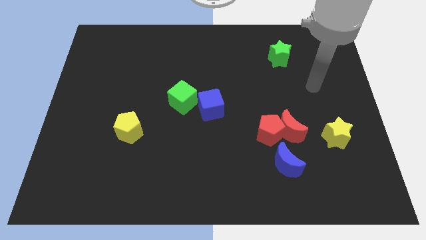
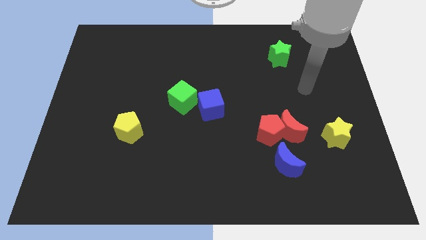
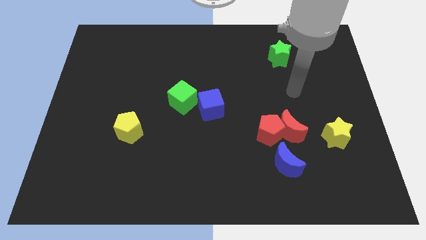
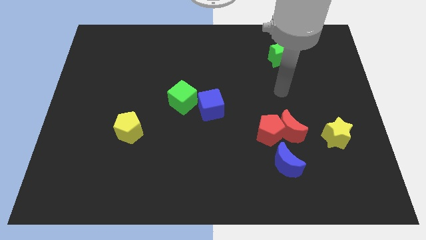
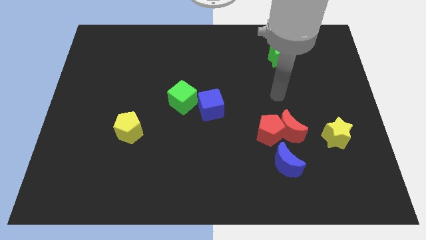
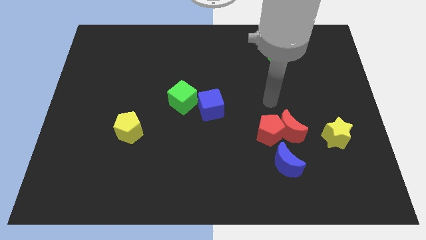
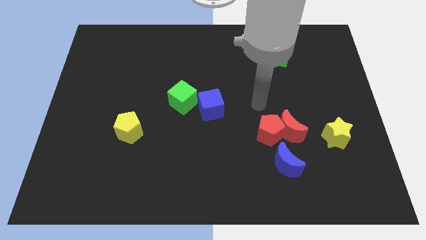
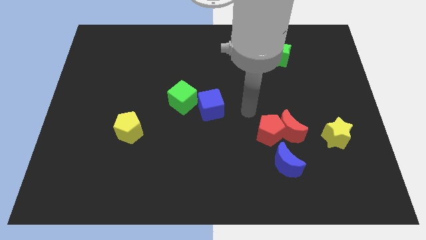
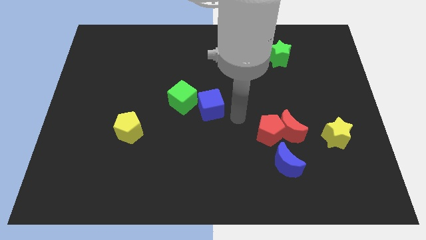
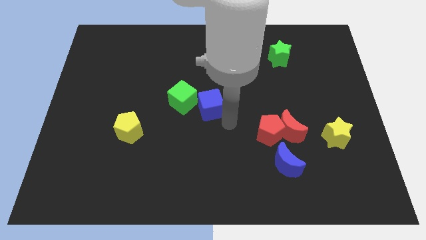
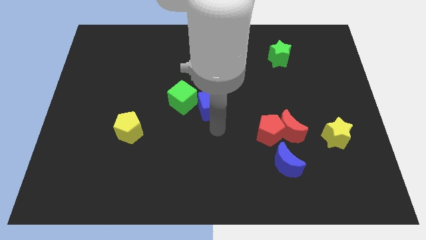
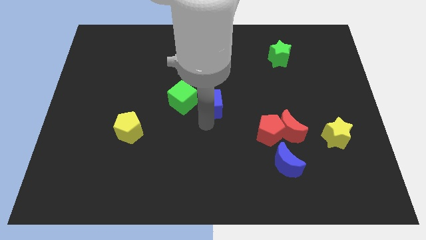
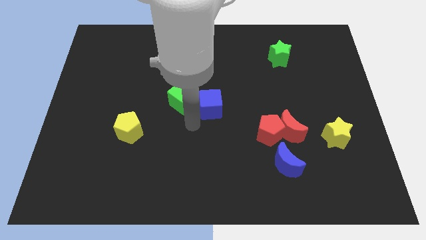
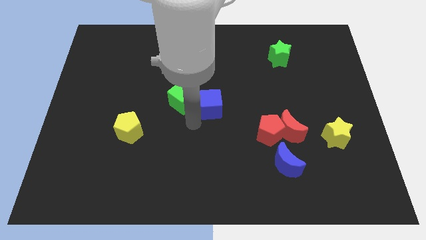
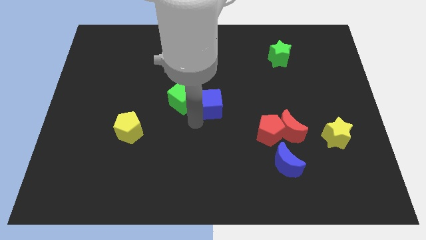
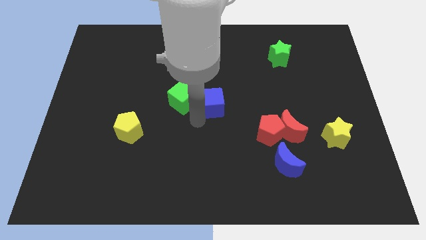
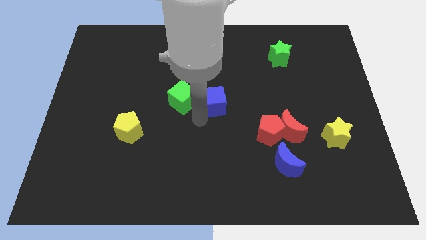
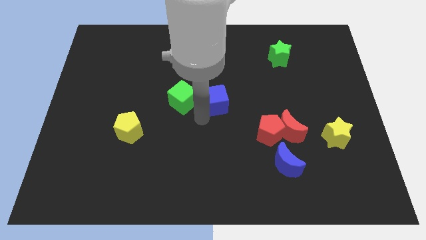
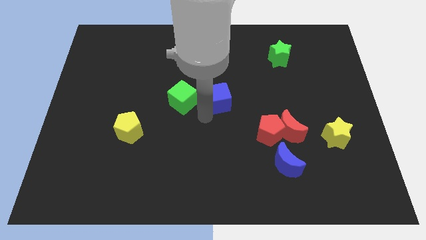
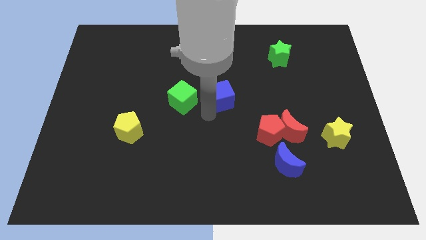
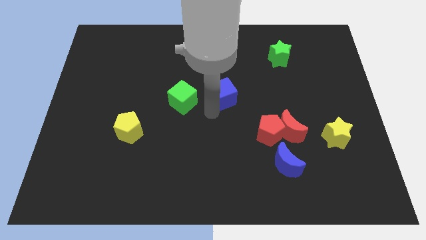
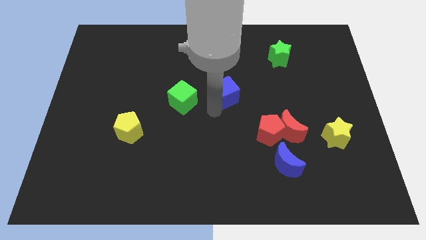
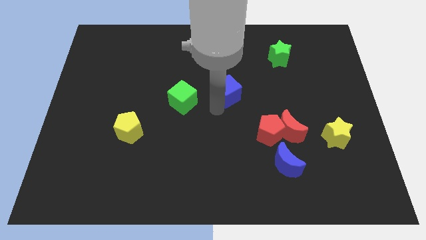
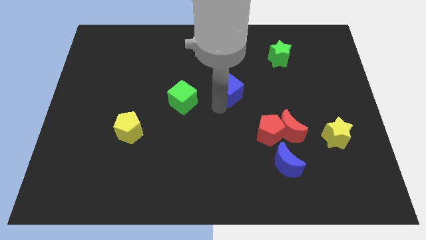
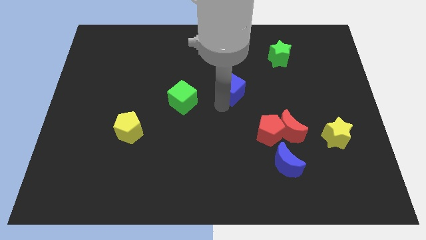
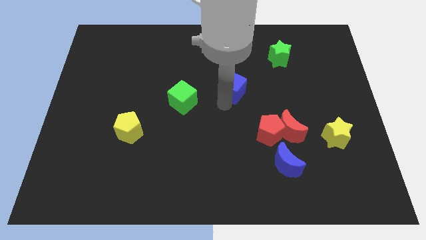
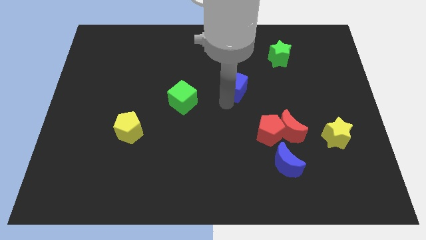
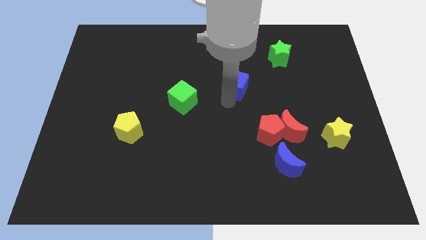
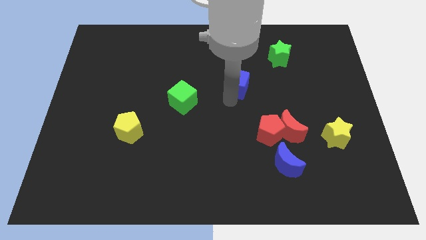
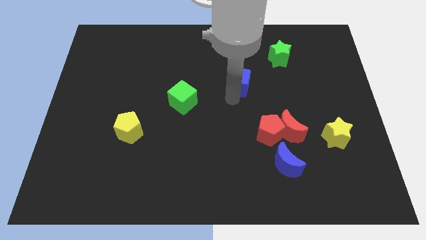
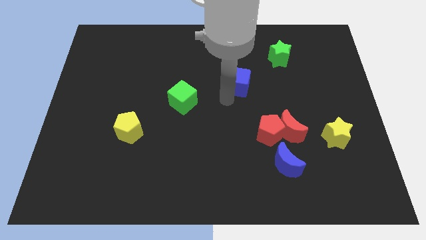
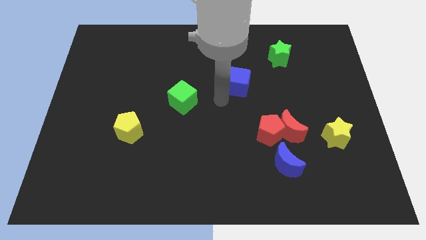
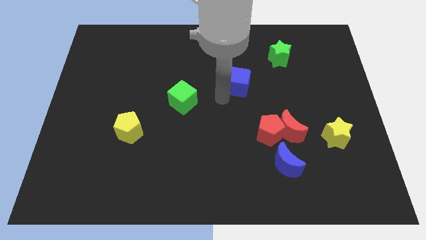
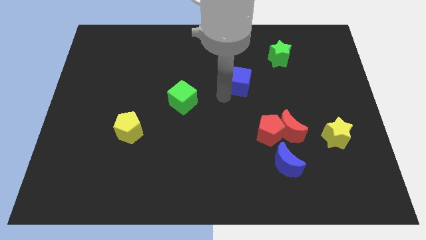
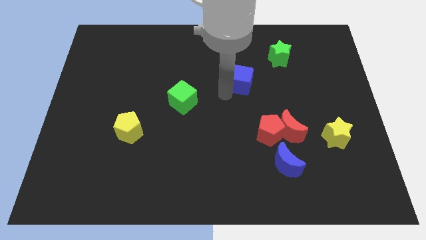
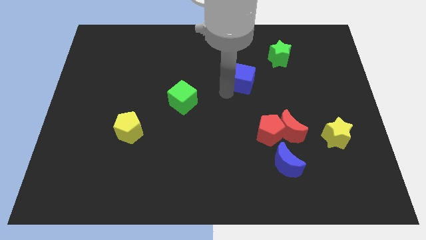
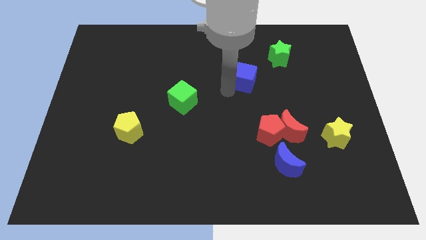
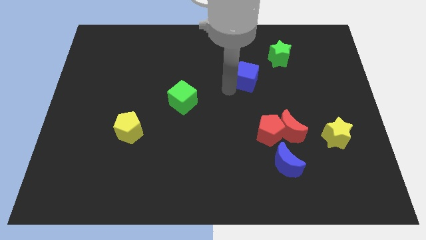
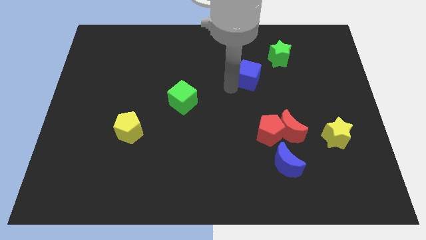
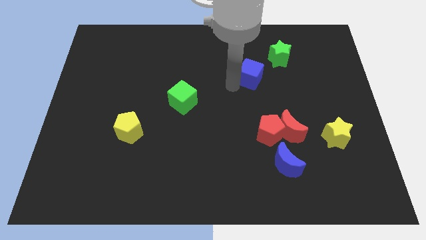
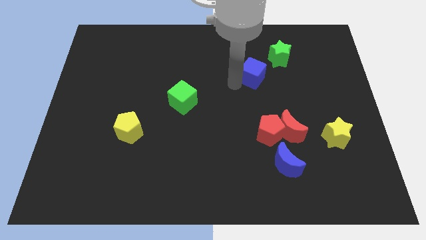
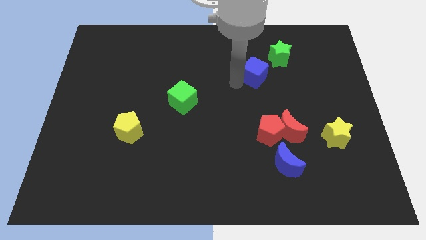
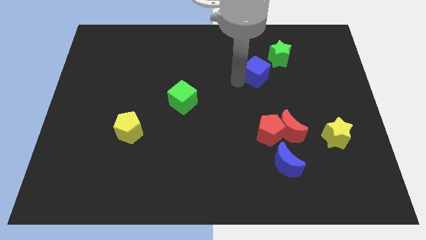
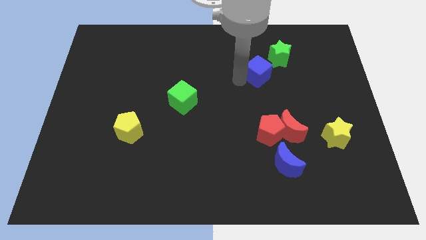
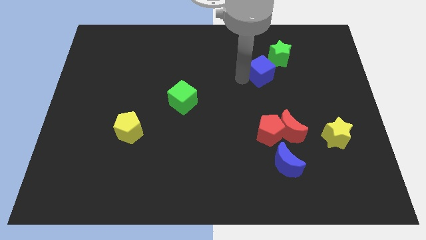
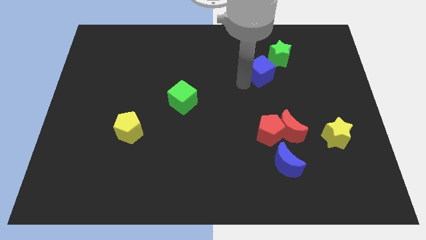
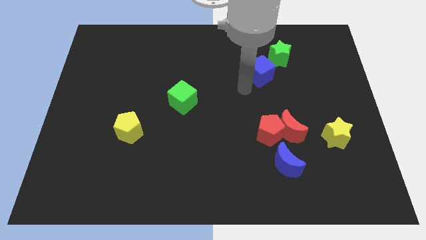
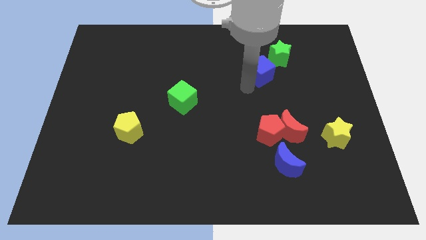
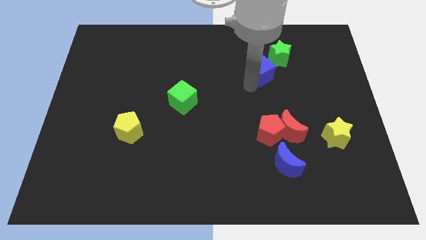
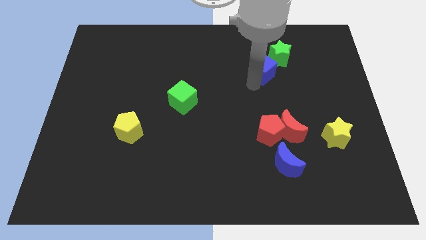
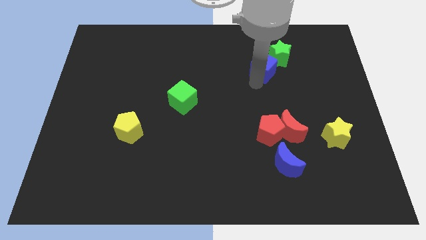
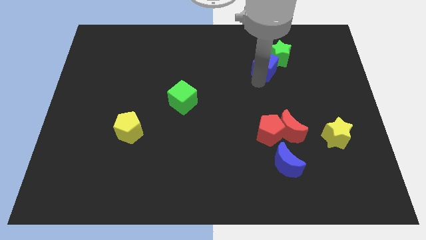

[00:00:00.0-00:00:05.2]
put the blue cube towards the green star

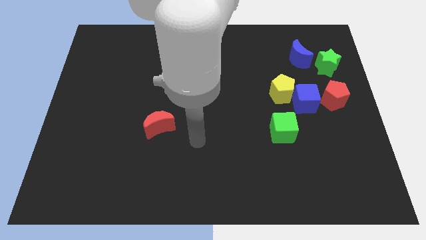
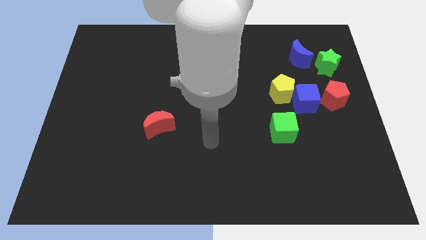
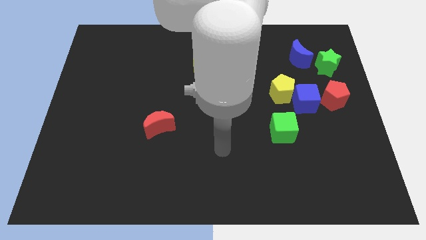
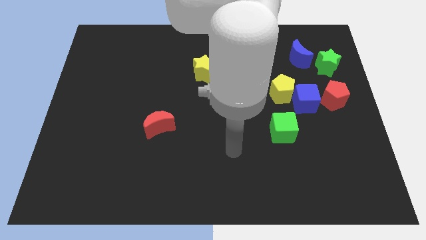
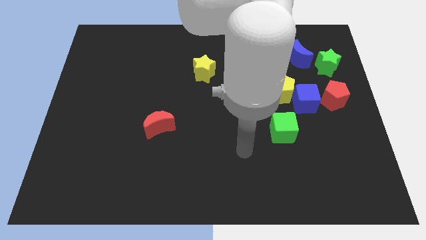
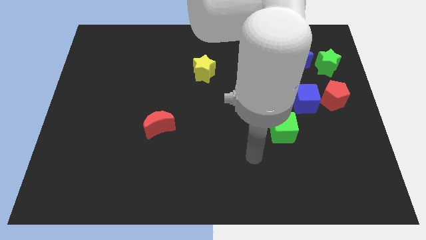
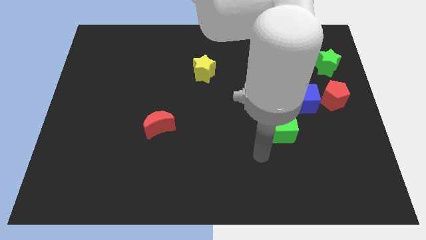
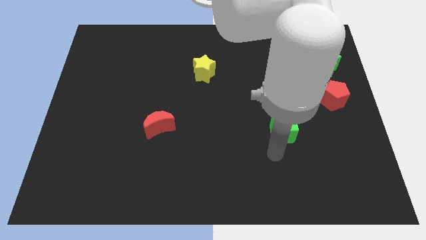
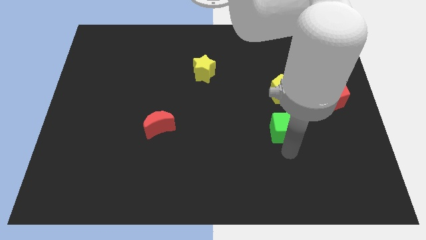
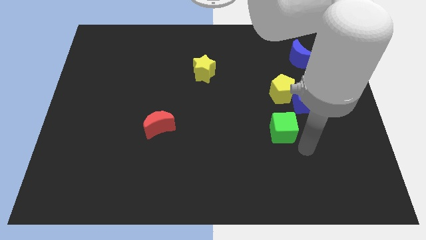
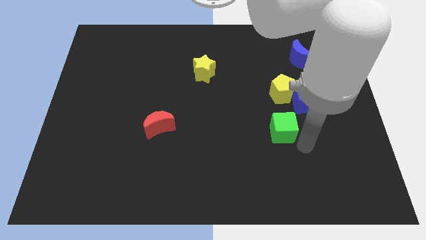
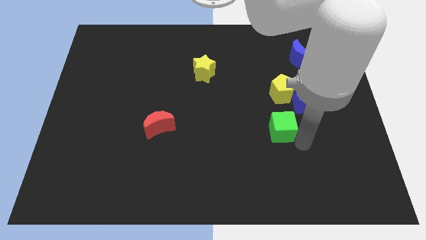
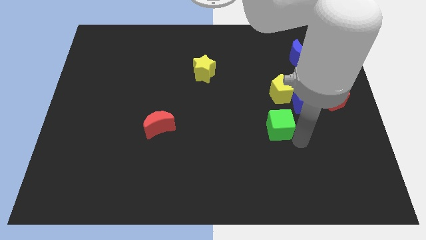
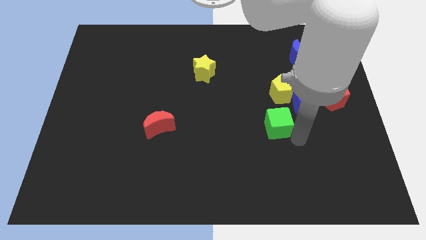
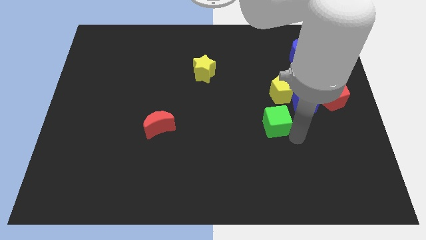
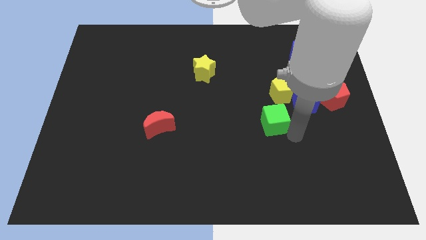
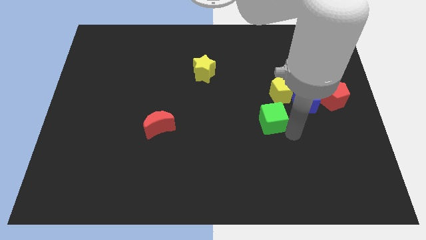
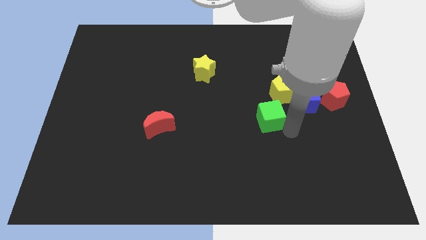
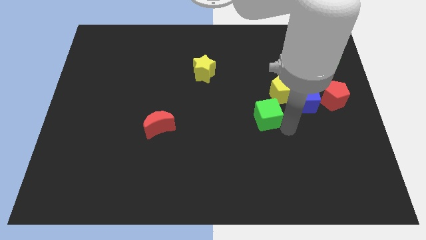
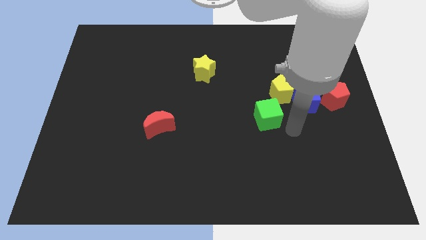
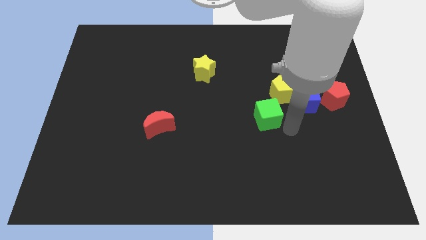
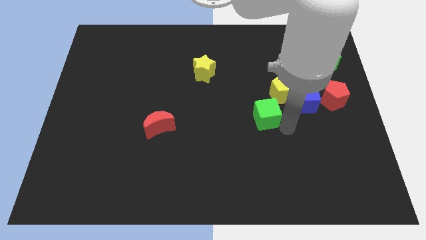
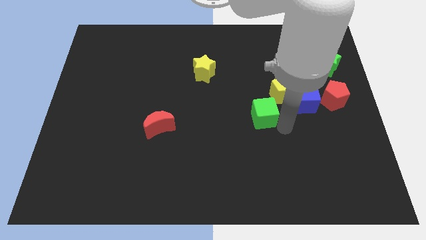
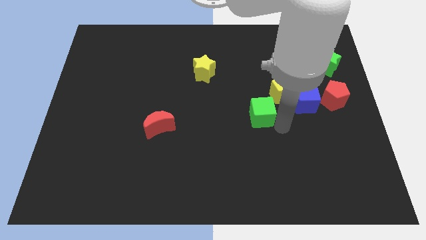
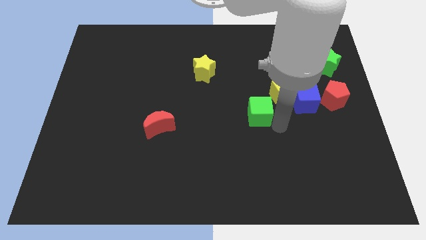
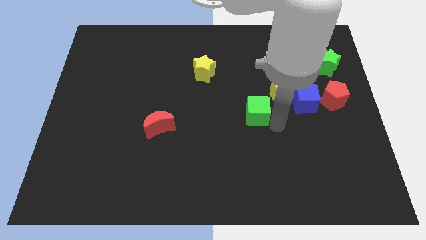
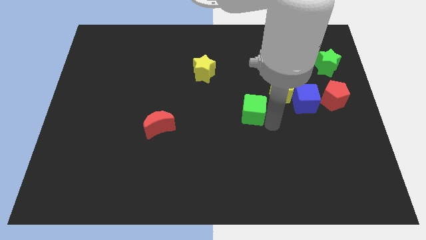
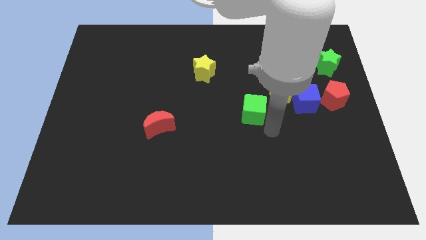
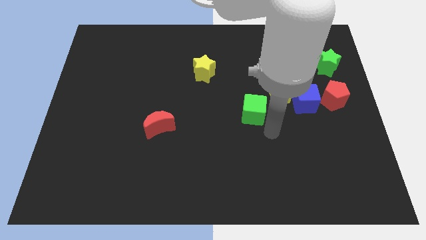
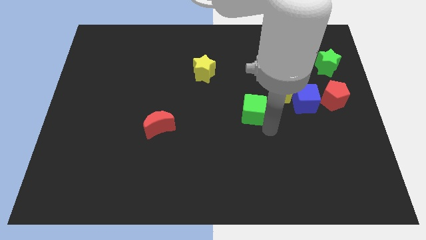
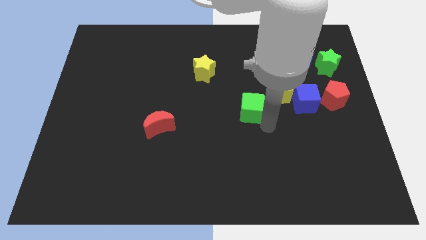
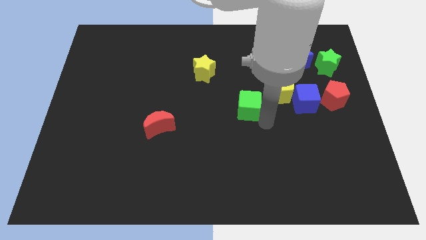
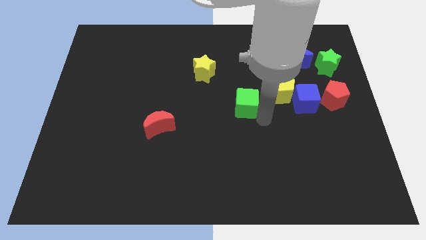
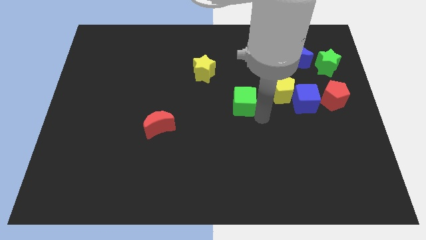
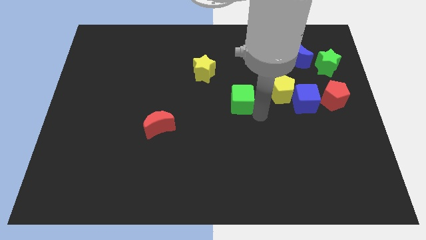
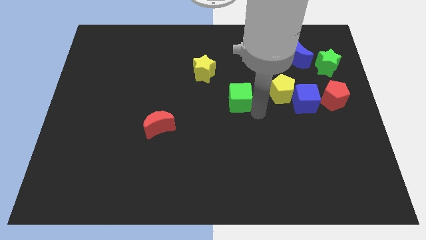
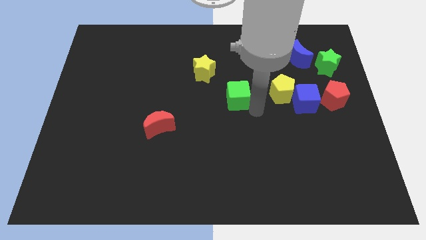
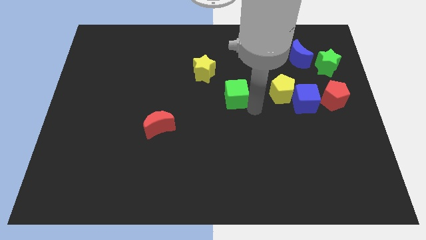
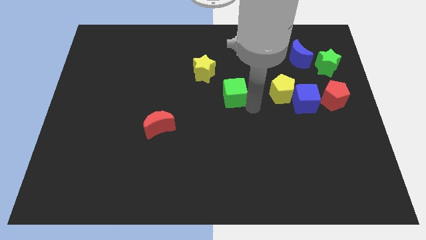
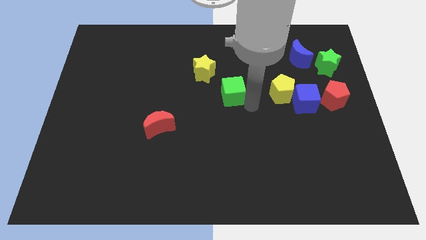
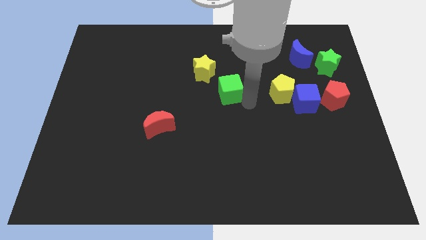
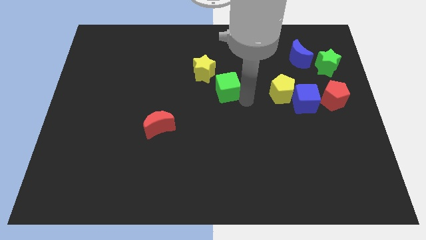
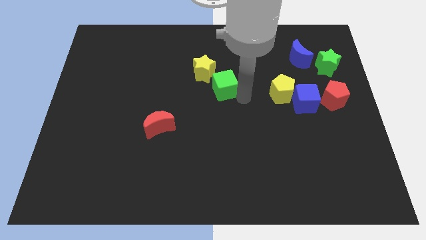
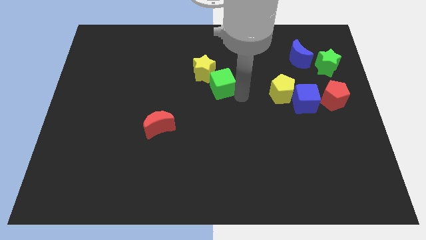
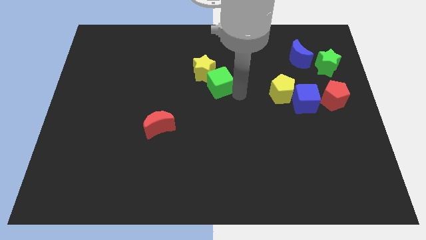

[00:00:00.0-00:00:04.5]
slide the green cube next to the yellow star
